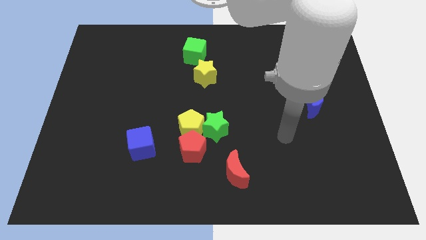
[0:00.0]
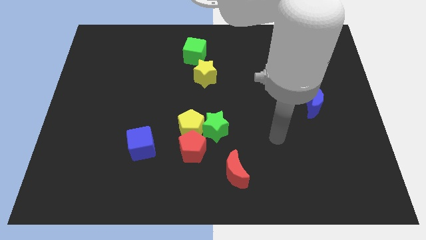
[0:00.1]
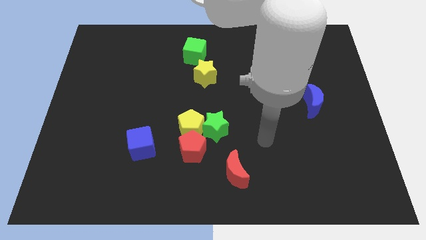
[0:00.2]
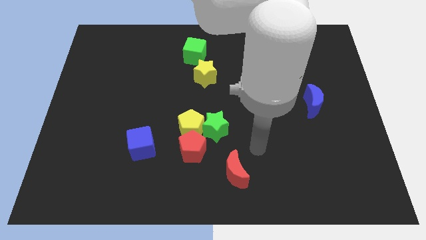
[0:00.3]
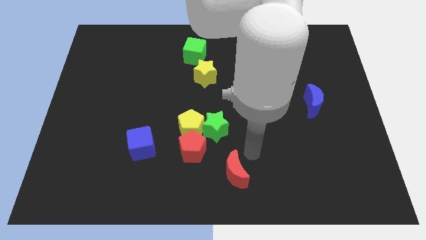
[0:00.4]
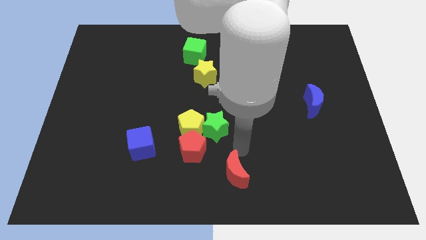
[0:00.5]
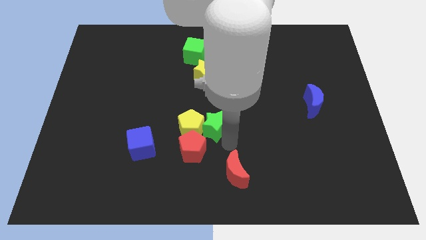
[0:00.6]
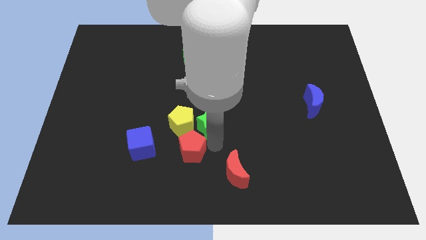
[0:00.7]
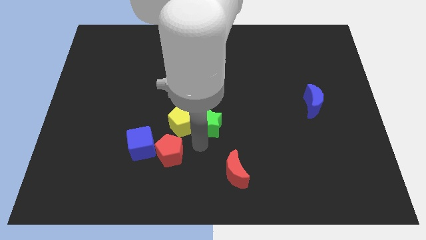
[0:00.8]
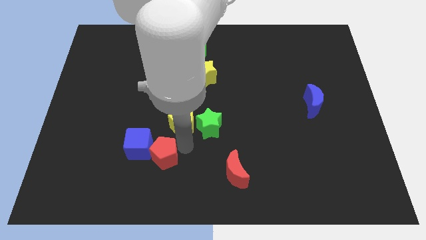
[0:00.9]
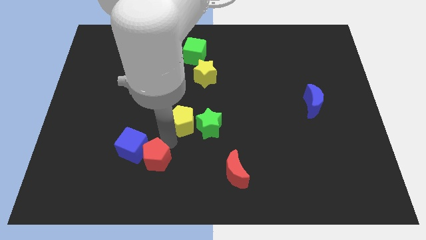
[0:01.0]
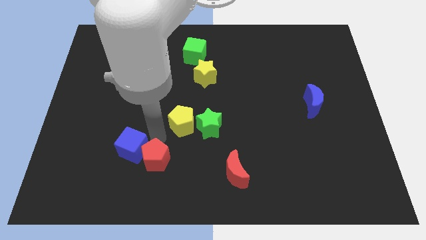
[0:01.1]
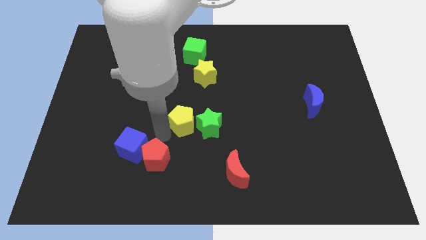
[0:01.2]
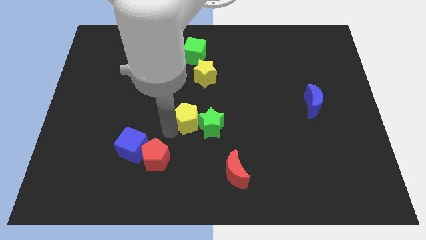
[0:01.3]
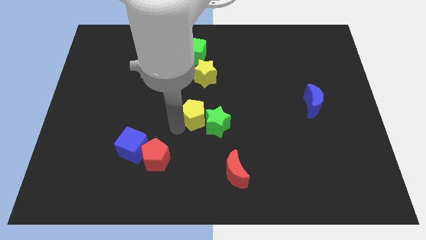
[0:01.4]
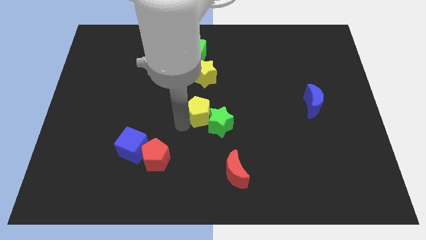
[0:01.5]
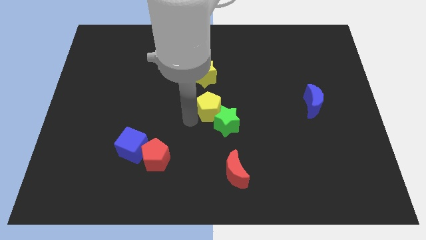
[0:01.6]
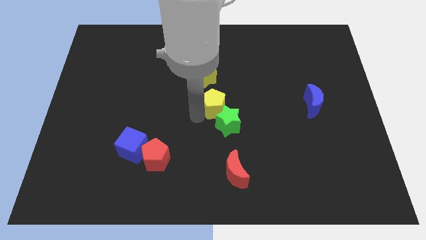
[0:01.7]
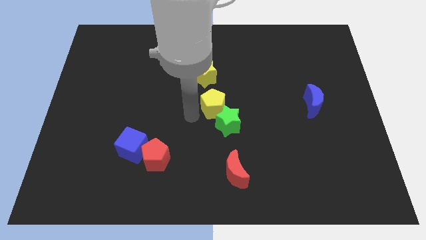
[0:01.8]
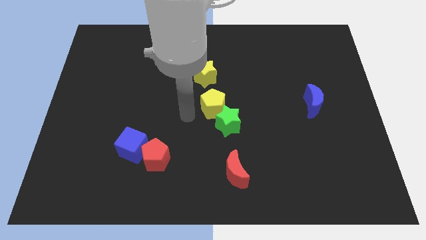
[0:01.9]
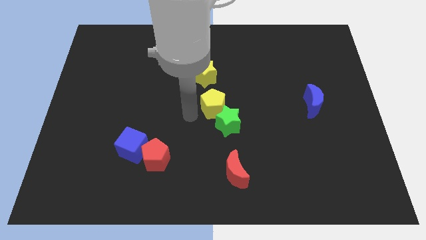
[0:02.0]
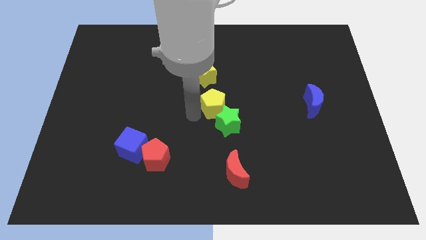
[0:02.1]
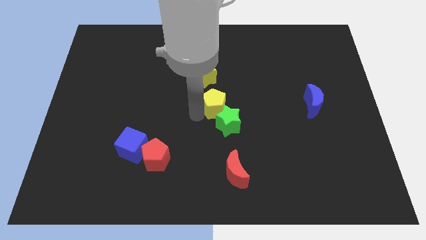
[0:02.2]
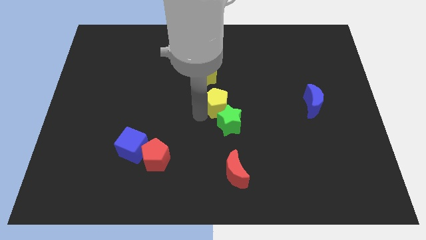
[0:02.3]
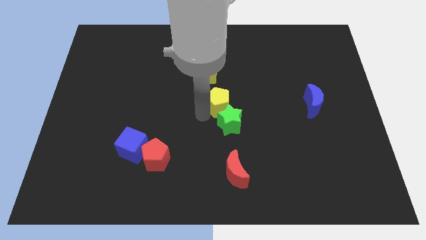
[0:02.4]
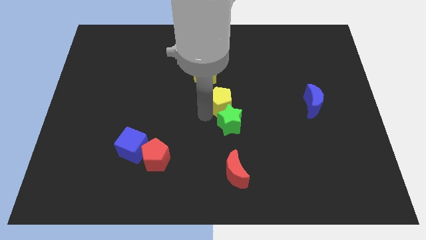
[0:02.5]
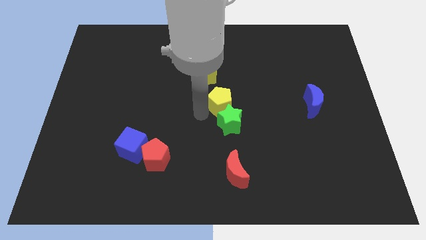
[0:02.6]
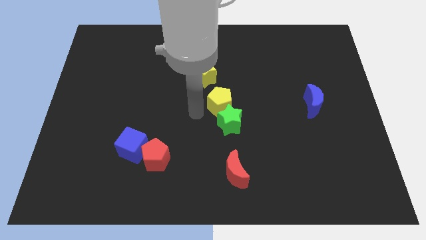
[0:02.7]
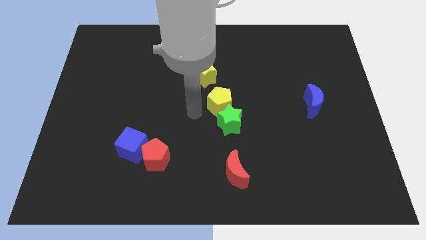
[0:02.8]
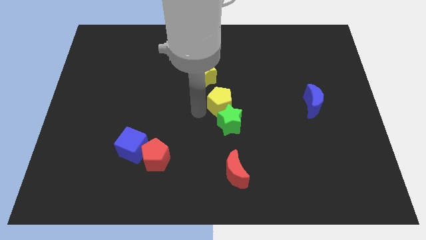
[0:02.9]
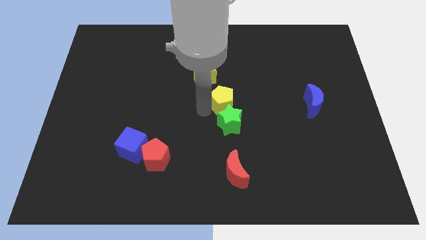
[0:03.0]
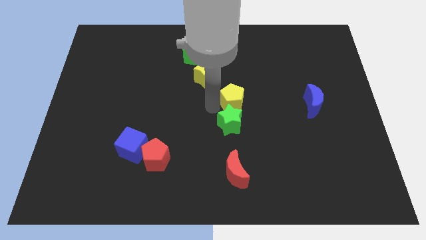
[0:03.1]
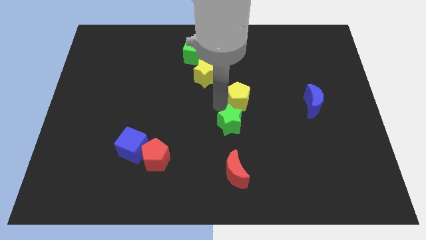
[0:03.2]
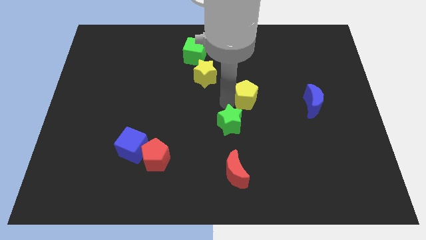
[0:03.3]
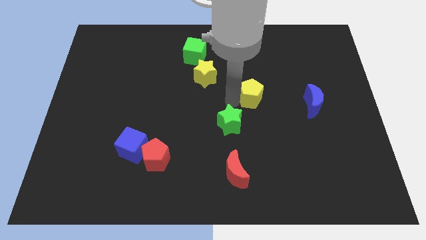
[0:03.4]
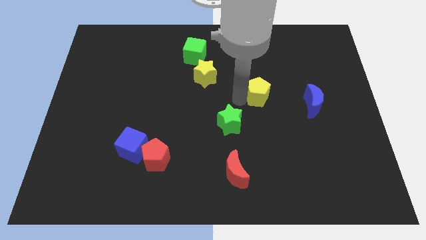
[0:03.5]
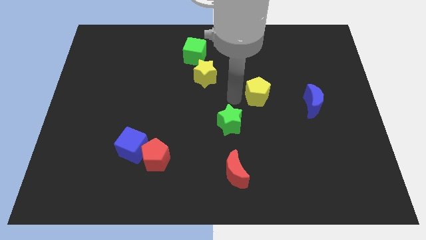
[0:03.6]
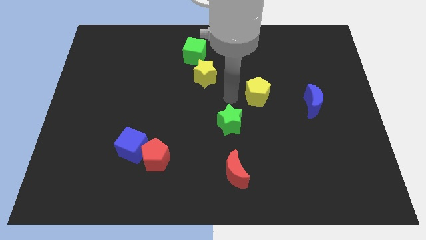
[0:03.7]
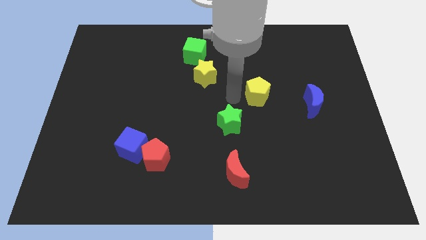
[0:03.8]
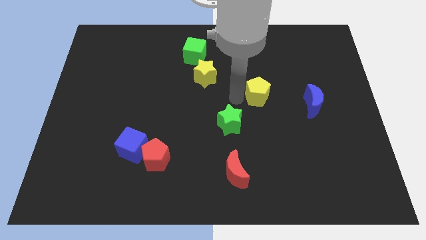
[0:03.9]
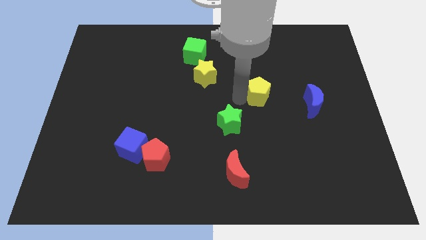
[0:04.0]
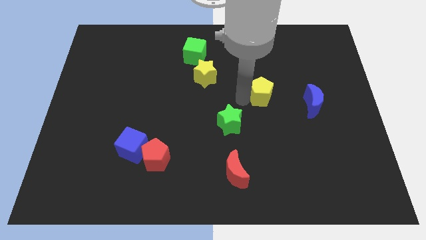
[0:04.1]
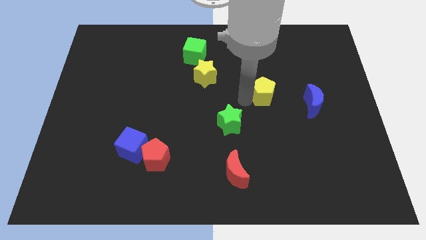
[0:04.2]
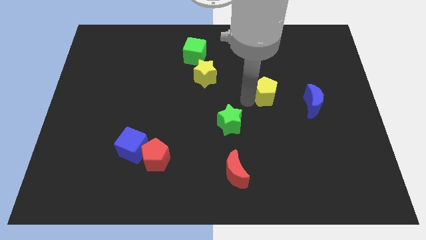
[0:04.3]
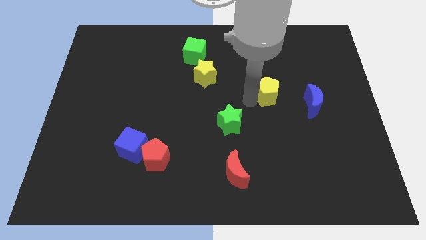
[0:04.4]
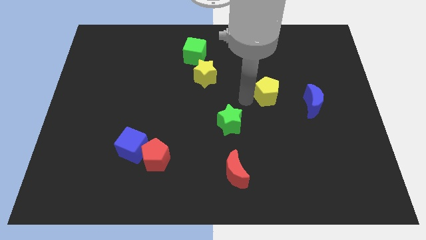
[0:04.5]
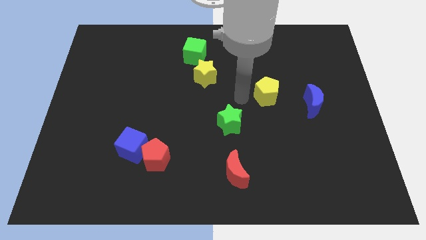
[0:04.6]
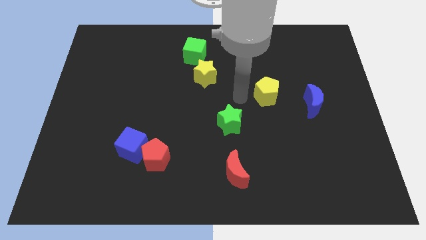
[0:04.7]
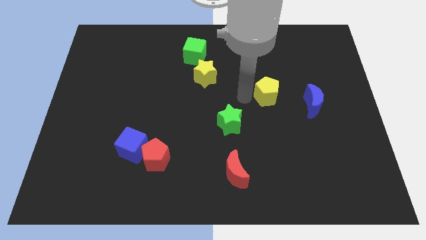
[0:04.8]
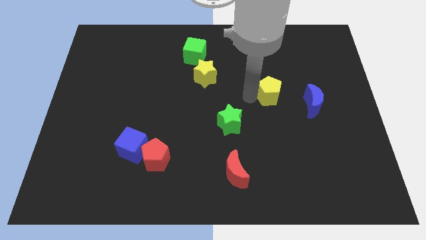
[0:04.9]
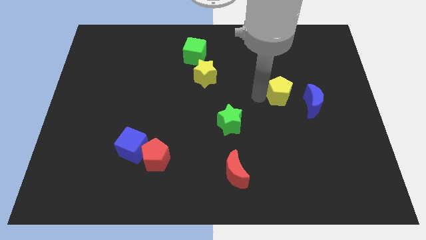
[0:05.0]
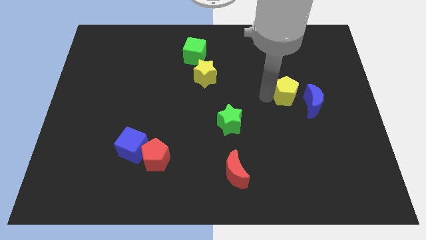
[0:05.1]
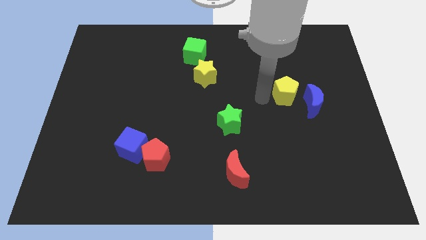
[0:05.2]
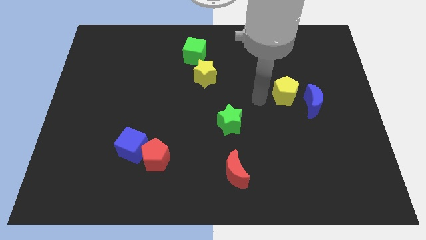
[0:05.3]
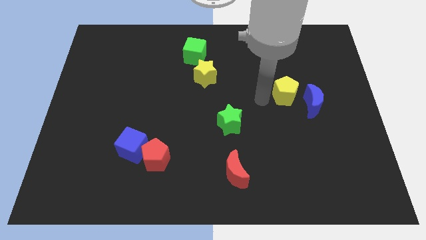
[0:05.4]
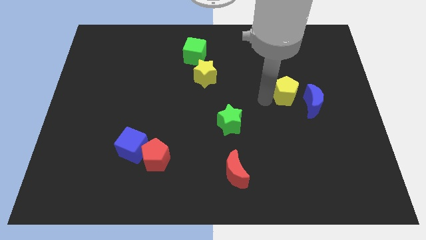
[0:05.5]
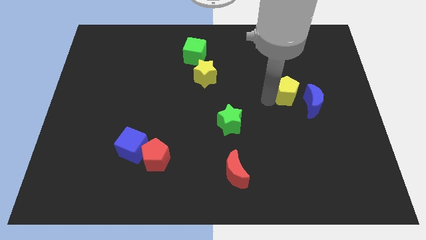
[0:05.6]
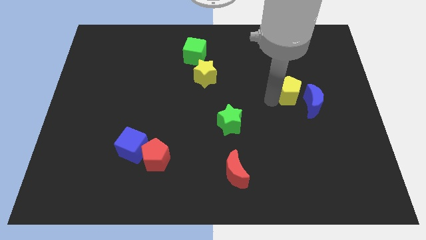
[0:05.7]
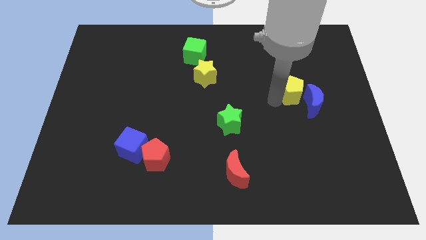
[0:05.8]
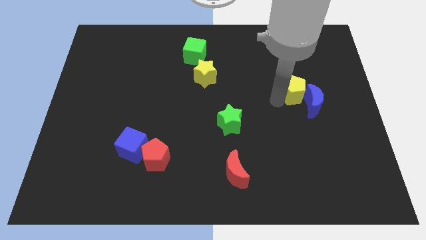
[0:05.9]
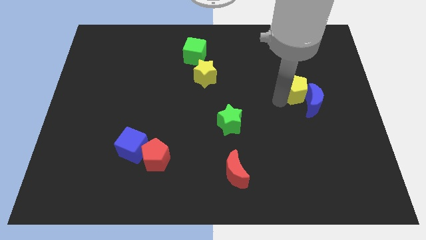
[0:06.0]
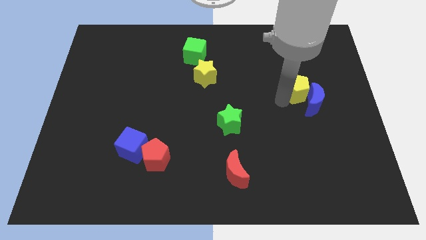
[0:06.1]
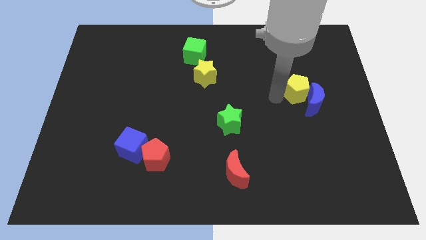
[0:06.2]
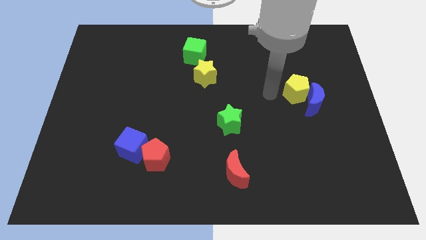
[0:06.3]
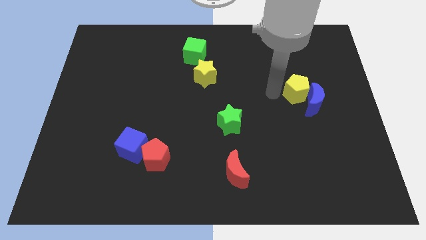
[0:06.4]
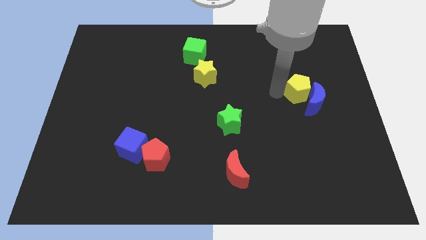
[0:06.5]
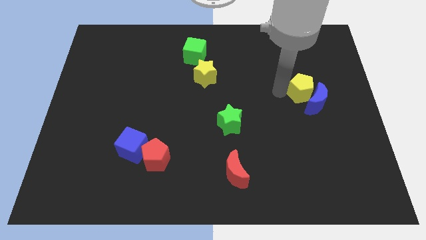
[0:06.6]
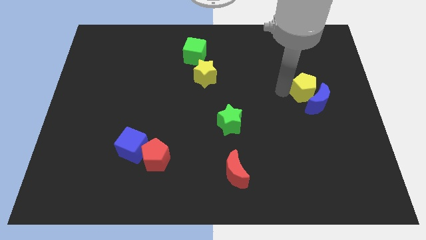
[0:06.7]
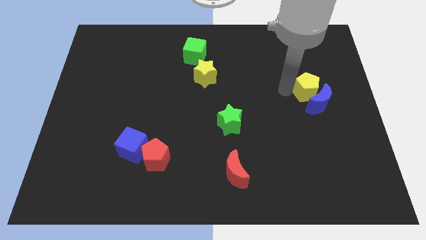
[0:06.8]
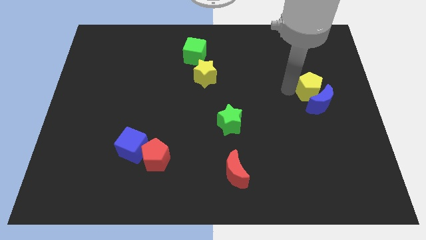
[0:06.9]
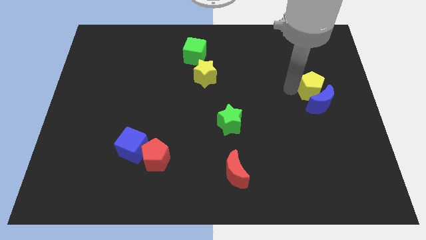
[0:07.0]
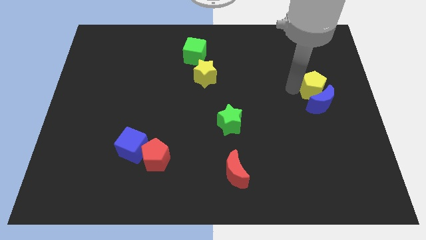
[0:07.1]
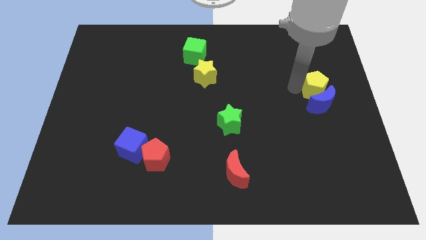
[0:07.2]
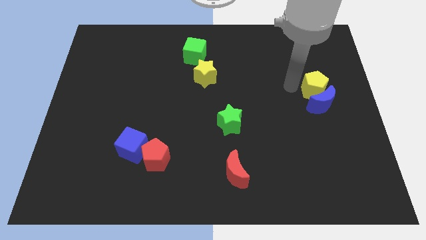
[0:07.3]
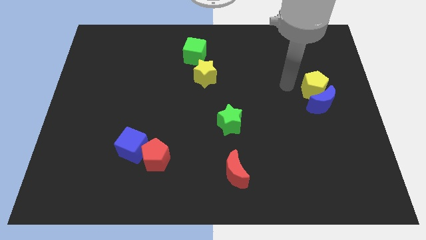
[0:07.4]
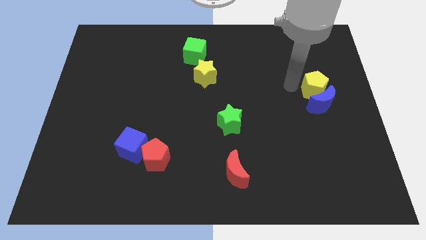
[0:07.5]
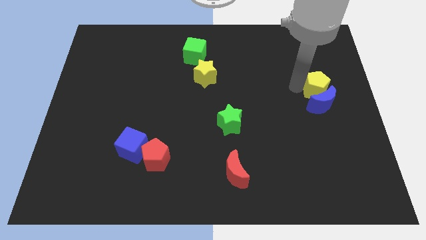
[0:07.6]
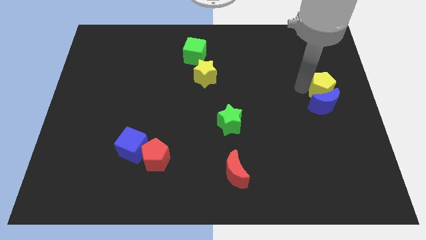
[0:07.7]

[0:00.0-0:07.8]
push the yellow pentagon to the right side
